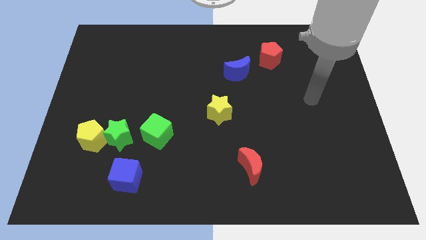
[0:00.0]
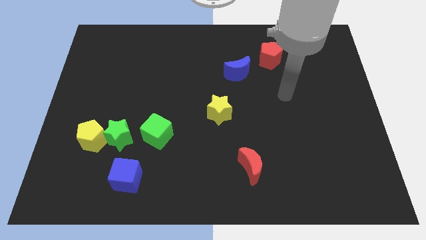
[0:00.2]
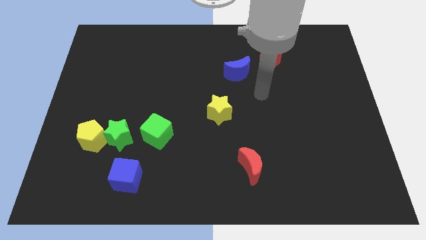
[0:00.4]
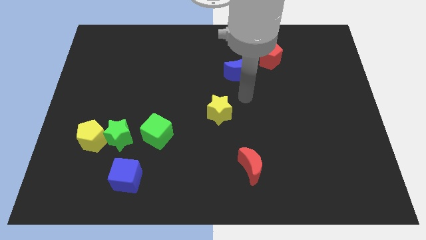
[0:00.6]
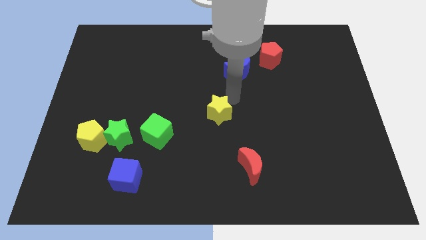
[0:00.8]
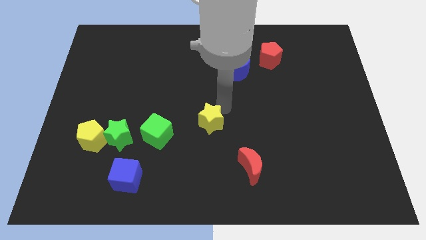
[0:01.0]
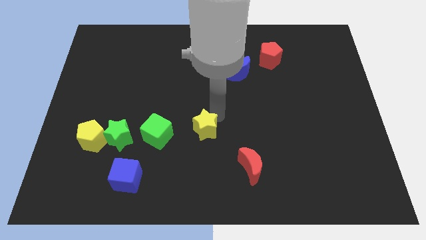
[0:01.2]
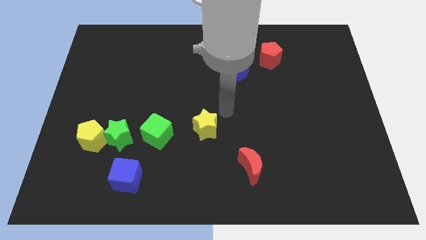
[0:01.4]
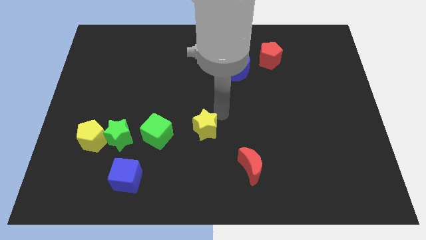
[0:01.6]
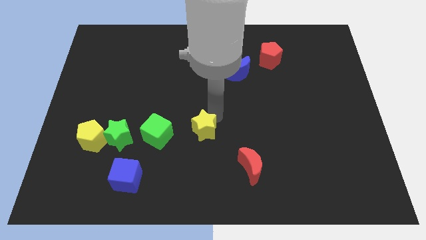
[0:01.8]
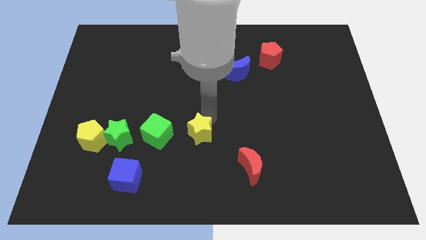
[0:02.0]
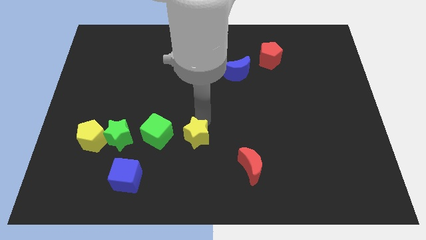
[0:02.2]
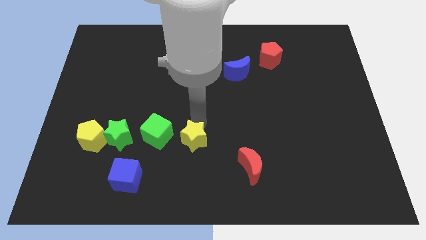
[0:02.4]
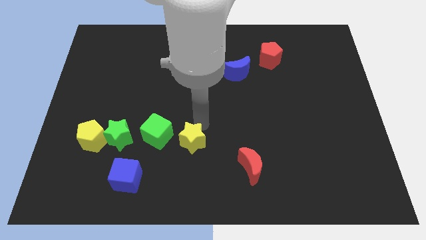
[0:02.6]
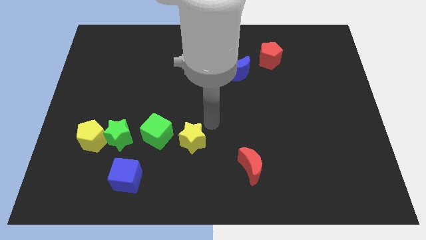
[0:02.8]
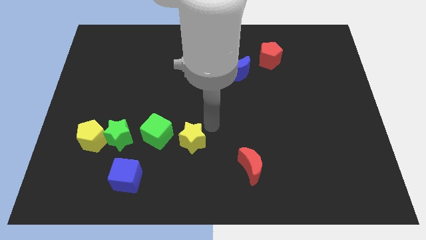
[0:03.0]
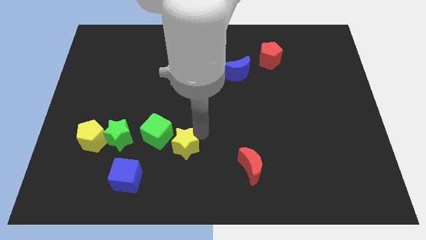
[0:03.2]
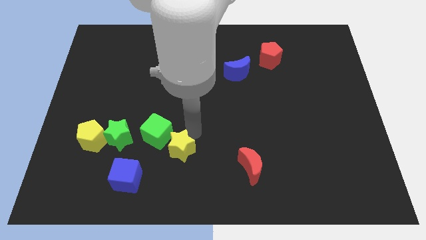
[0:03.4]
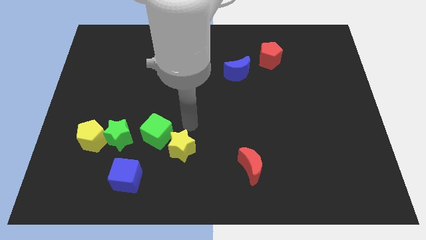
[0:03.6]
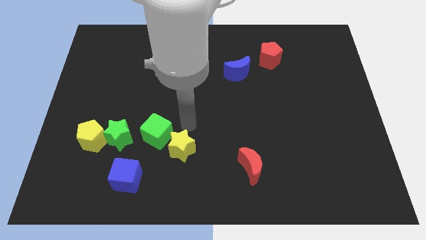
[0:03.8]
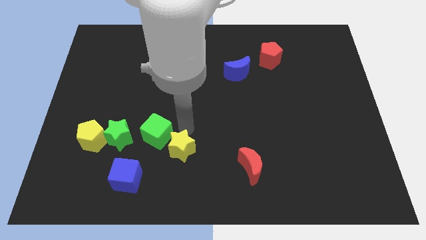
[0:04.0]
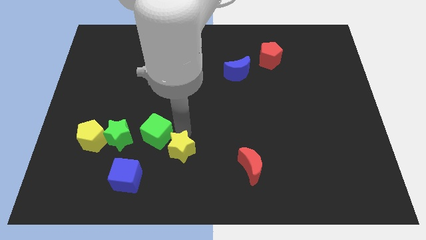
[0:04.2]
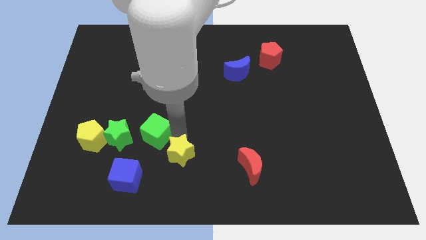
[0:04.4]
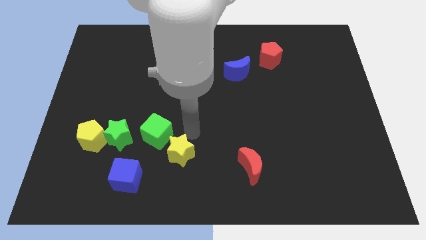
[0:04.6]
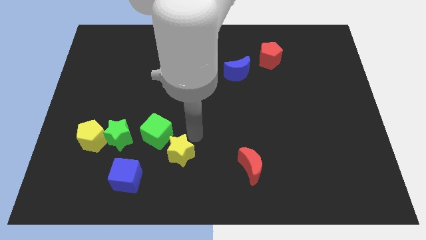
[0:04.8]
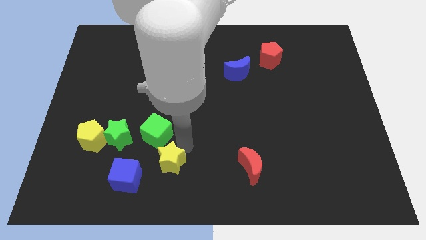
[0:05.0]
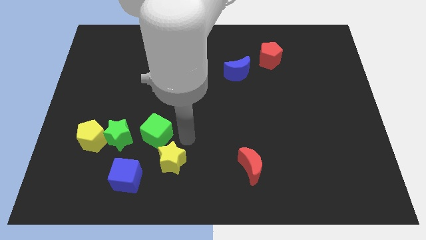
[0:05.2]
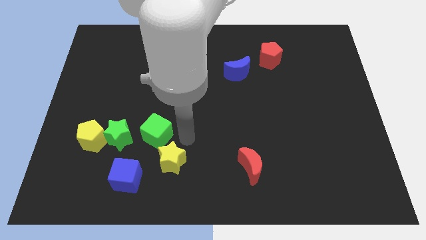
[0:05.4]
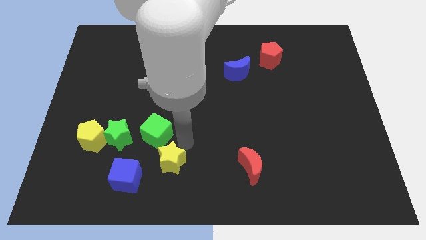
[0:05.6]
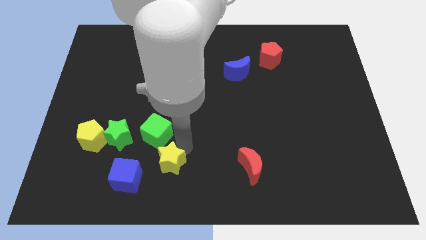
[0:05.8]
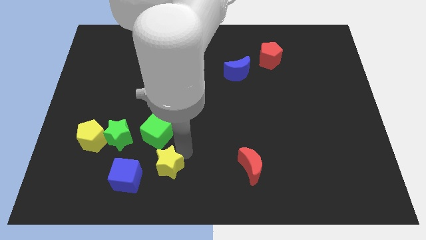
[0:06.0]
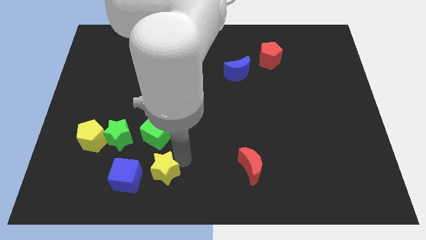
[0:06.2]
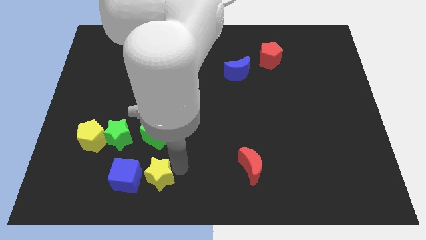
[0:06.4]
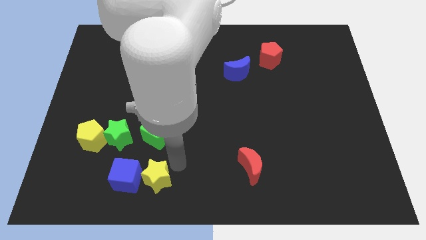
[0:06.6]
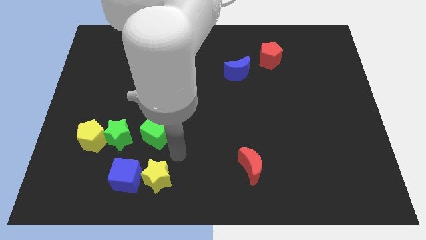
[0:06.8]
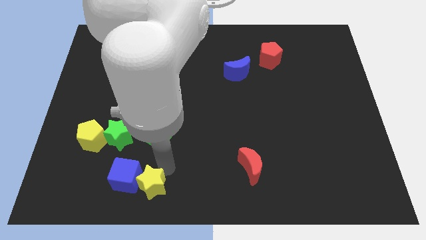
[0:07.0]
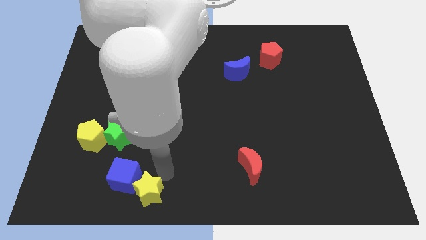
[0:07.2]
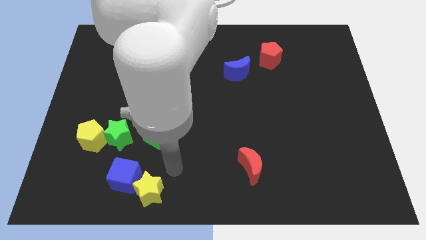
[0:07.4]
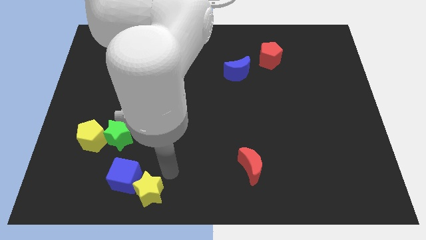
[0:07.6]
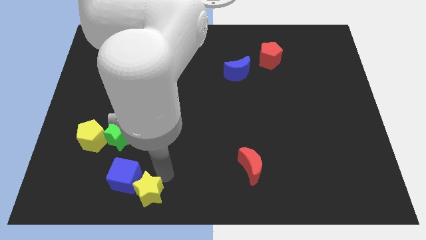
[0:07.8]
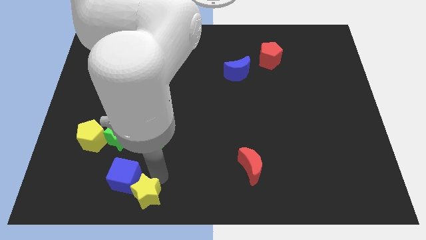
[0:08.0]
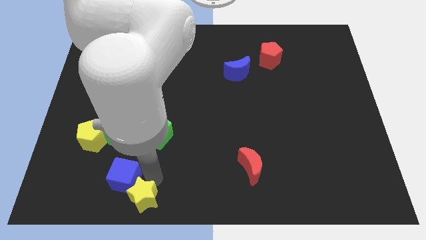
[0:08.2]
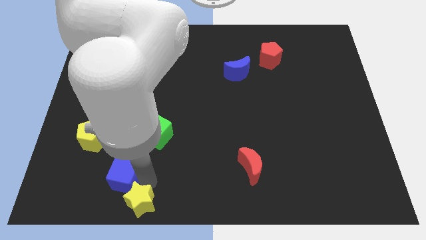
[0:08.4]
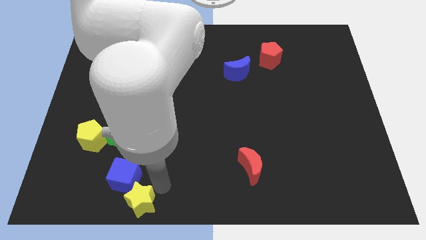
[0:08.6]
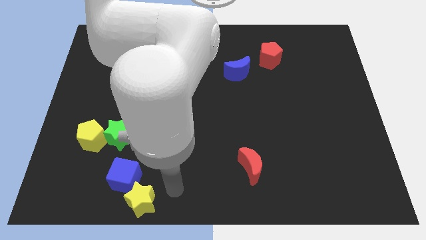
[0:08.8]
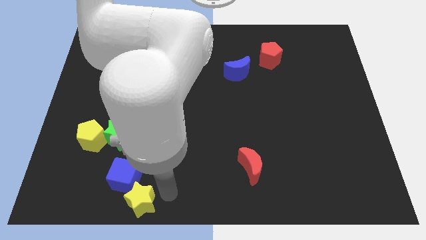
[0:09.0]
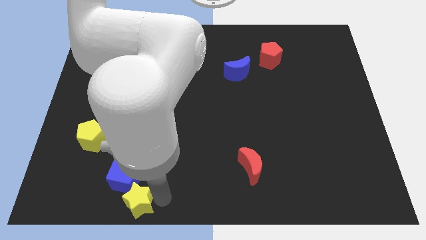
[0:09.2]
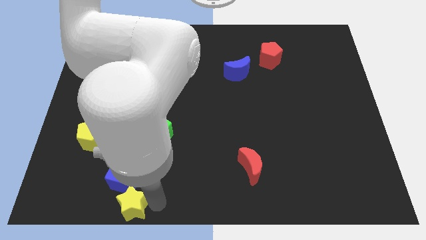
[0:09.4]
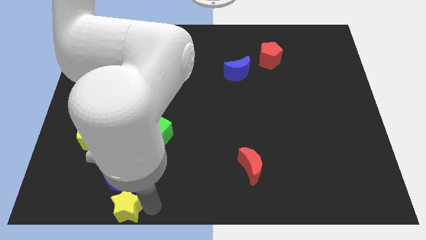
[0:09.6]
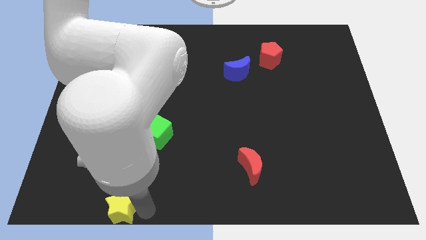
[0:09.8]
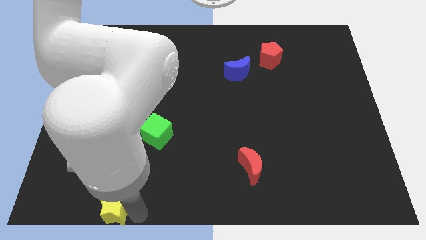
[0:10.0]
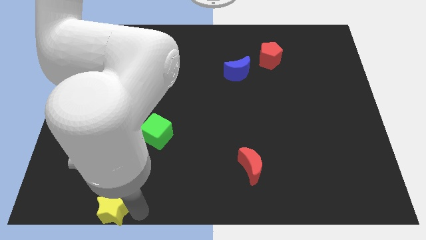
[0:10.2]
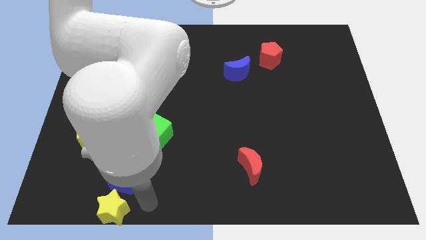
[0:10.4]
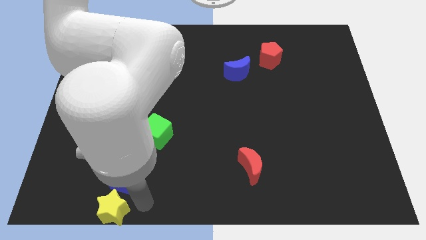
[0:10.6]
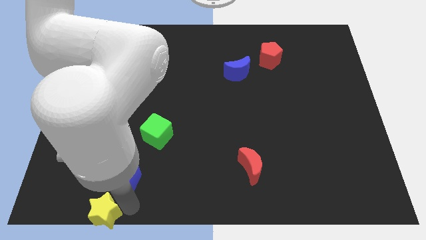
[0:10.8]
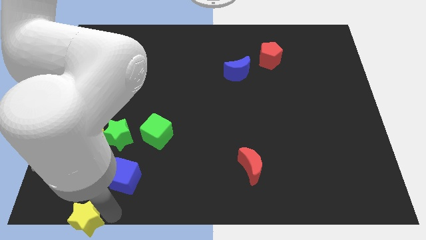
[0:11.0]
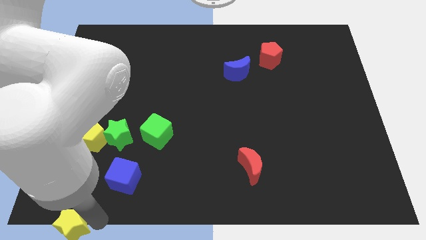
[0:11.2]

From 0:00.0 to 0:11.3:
move the yellow star to the bottom left

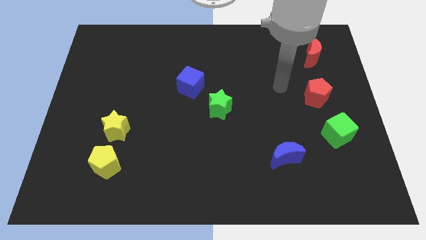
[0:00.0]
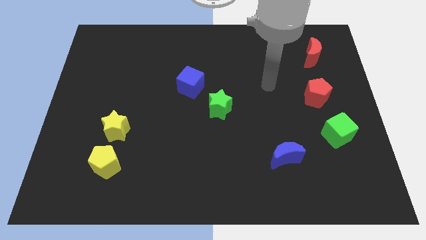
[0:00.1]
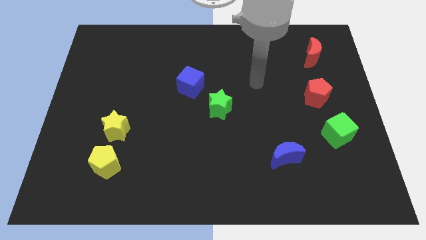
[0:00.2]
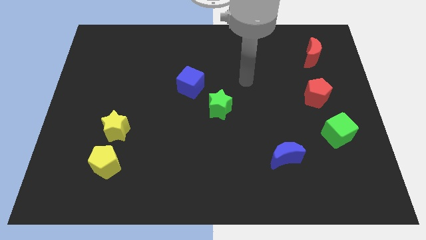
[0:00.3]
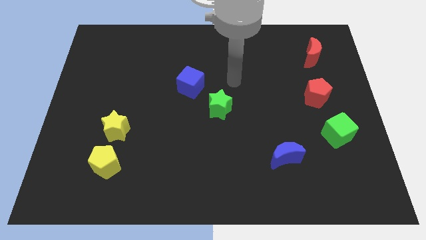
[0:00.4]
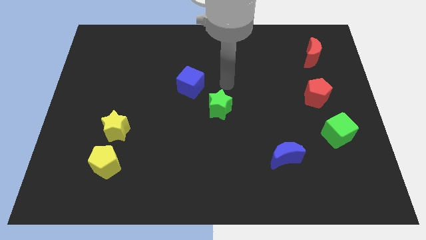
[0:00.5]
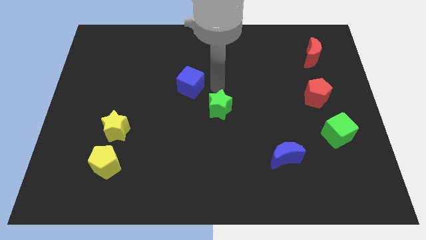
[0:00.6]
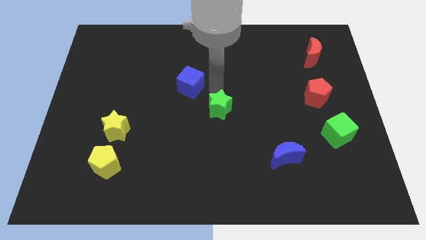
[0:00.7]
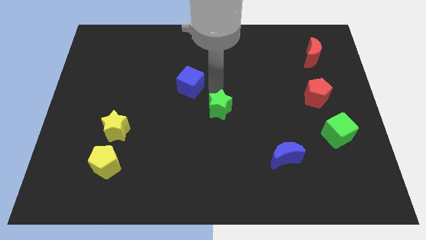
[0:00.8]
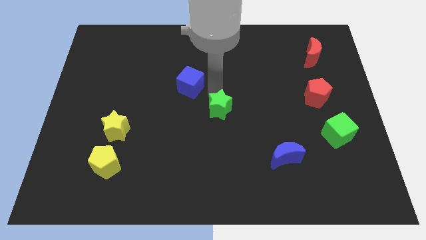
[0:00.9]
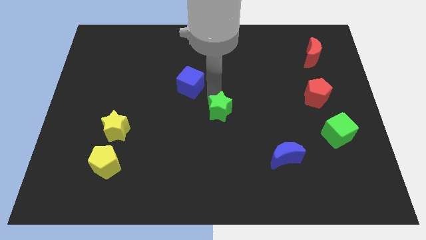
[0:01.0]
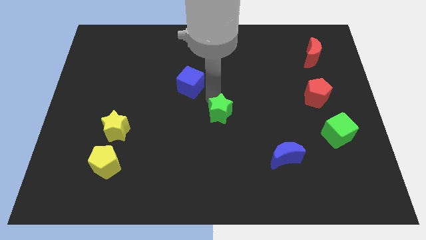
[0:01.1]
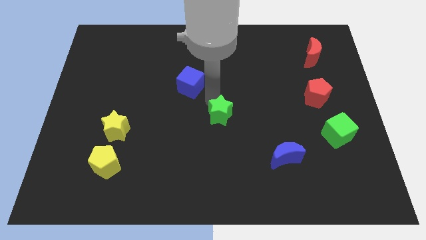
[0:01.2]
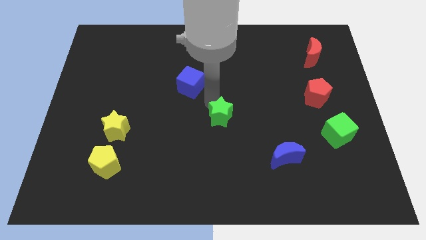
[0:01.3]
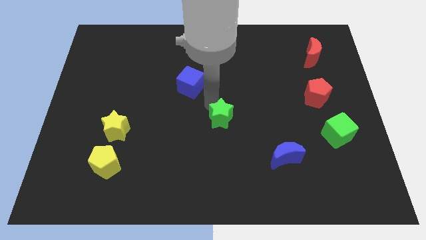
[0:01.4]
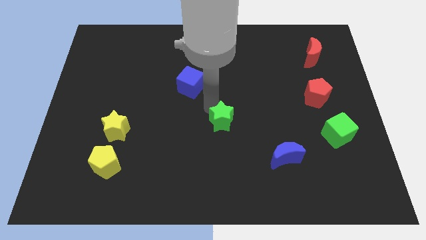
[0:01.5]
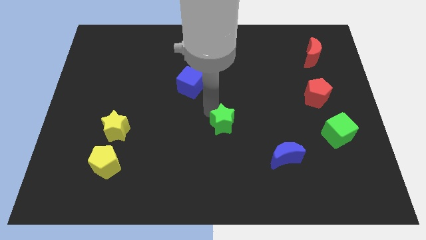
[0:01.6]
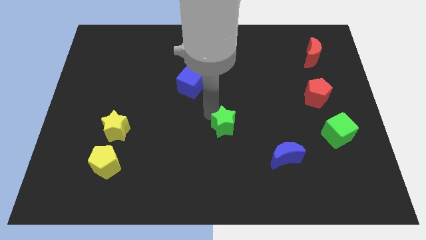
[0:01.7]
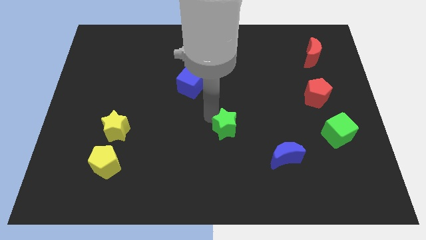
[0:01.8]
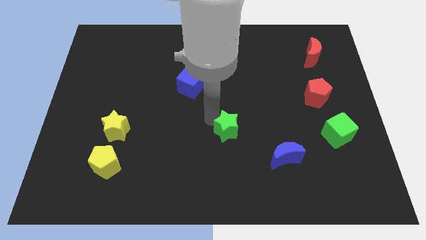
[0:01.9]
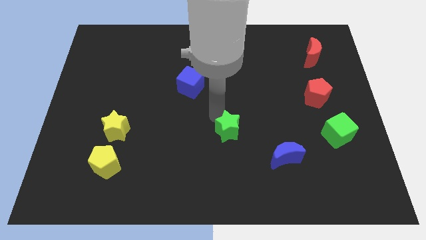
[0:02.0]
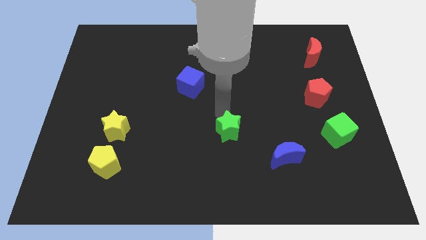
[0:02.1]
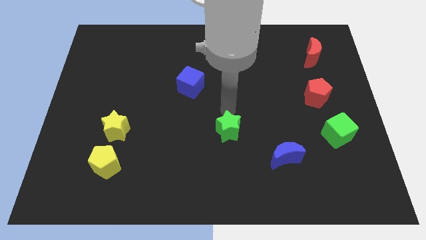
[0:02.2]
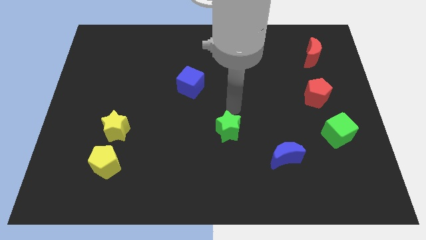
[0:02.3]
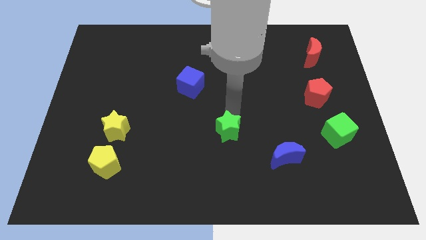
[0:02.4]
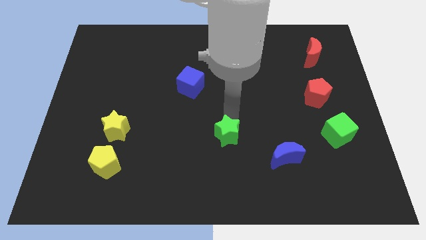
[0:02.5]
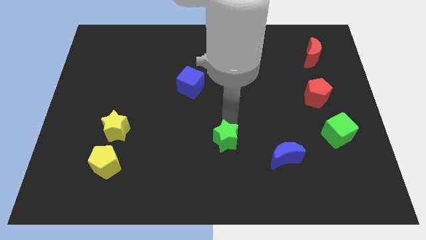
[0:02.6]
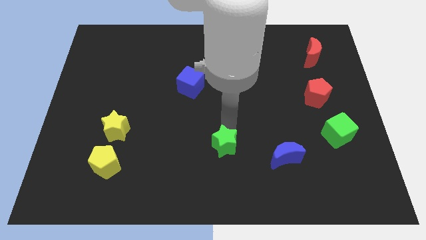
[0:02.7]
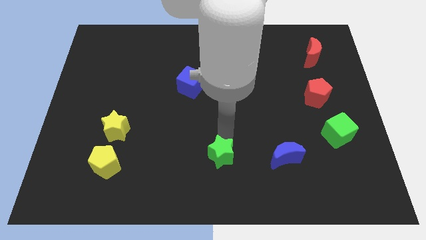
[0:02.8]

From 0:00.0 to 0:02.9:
move the green star to the bottom
